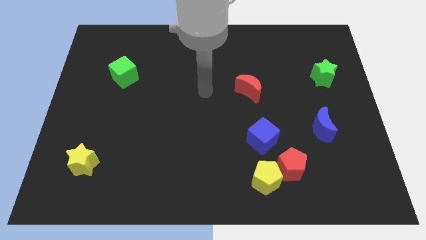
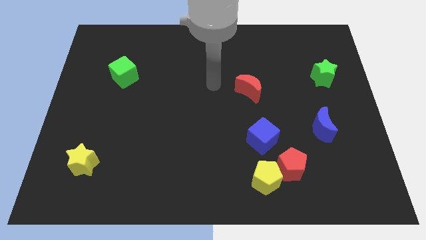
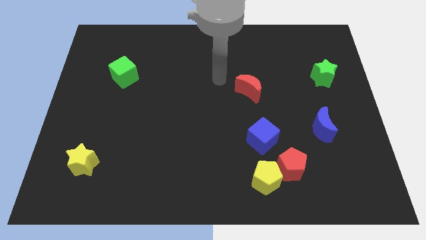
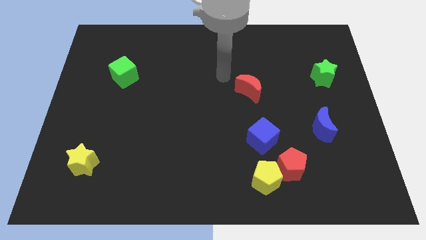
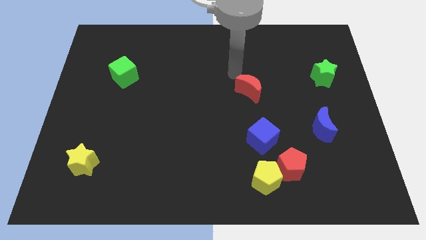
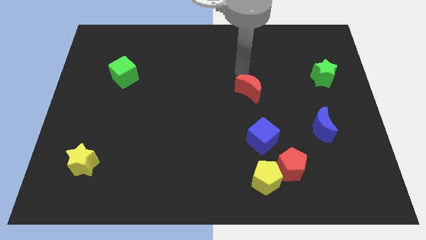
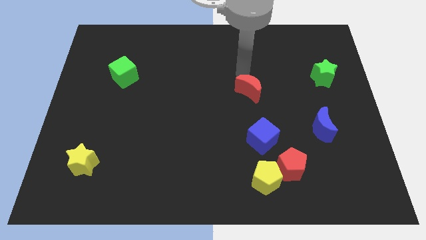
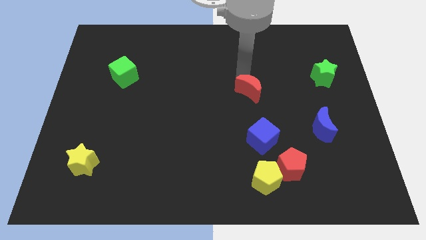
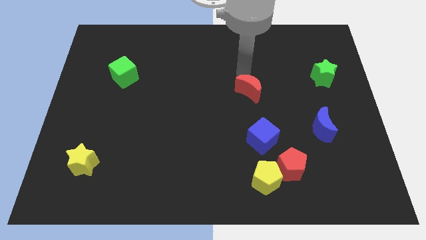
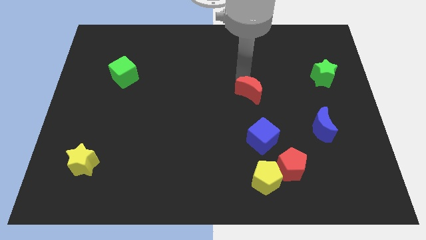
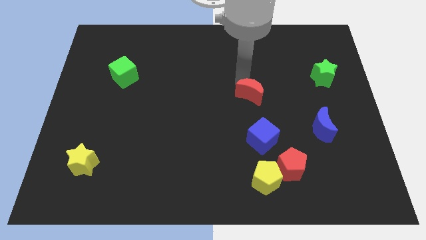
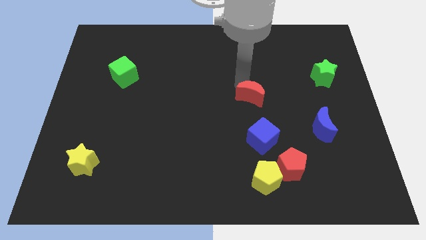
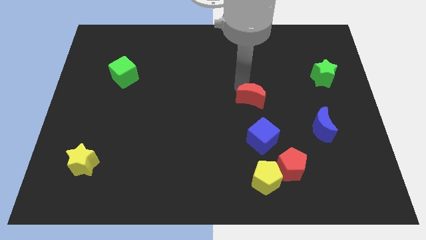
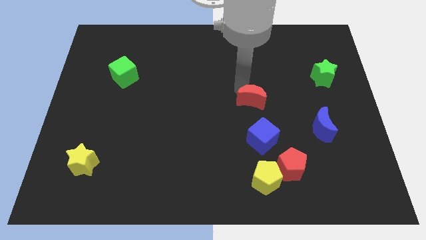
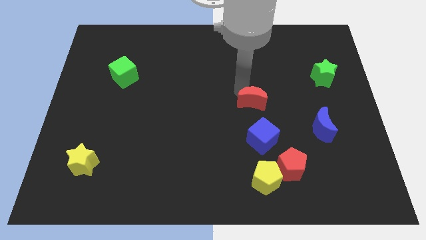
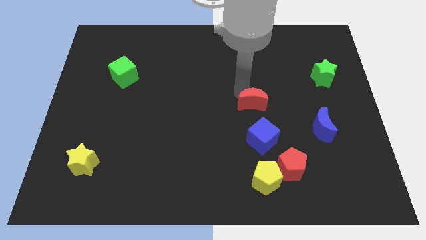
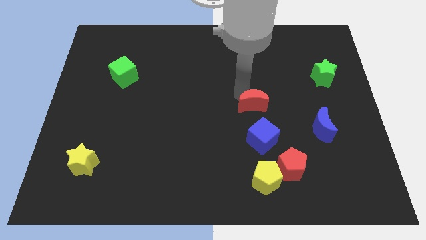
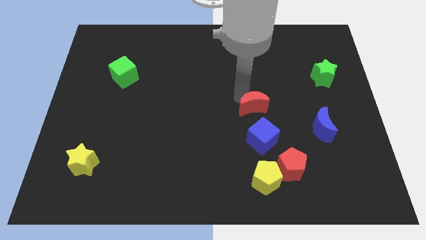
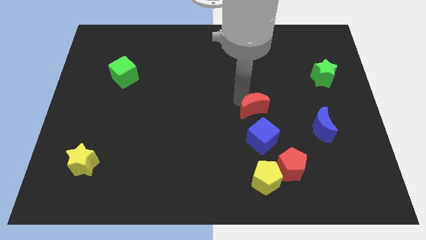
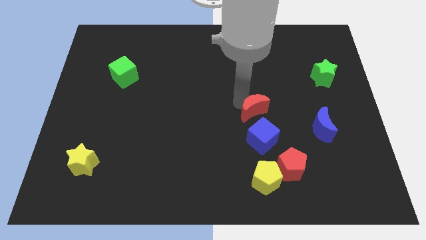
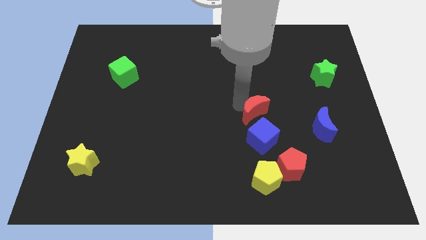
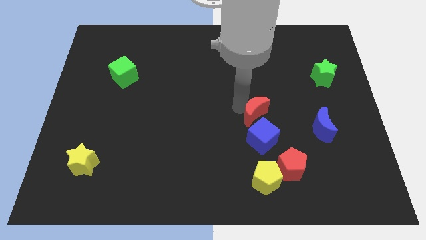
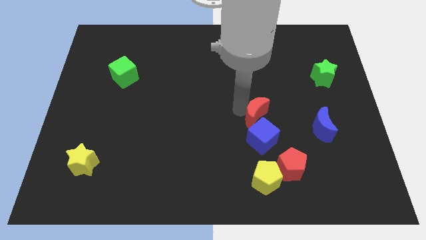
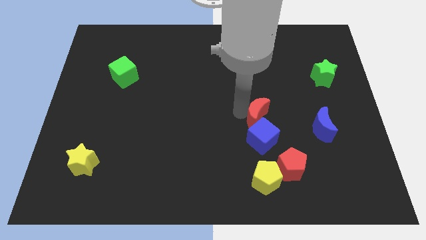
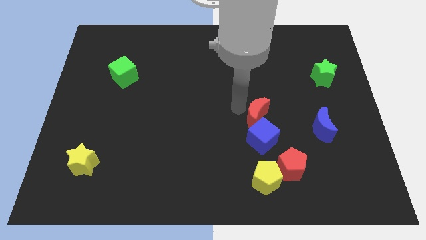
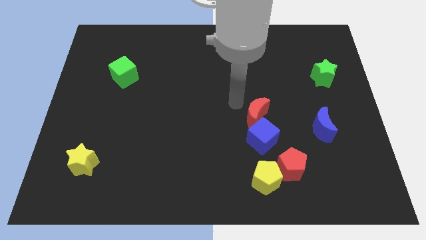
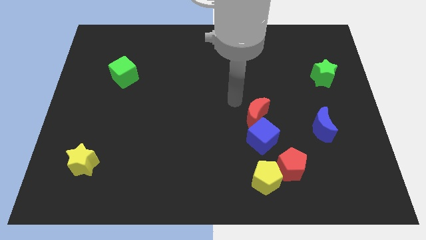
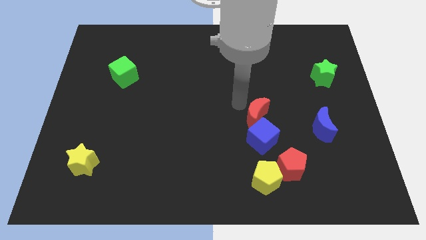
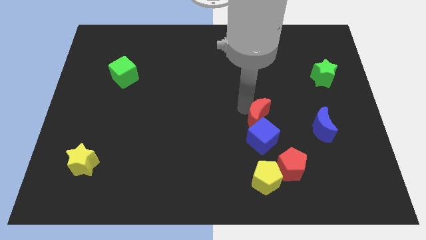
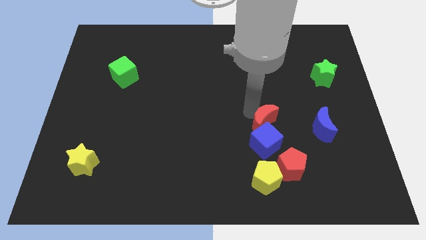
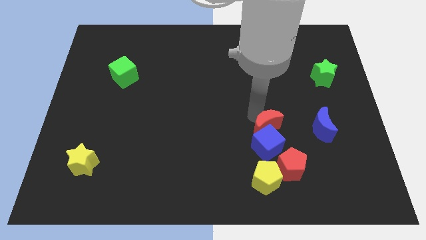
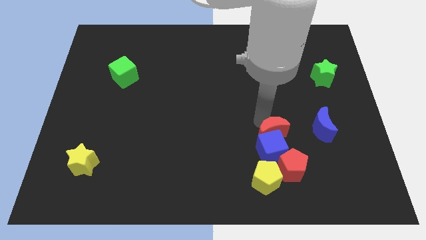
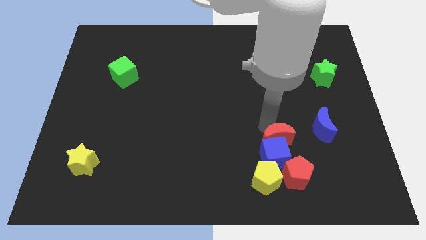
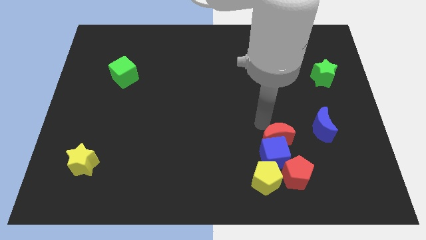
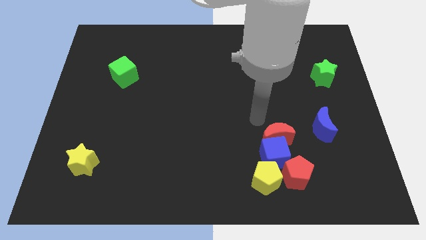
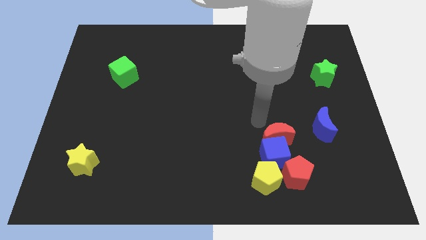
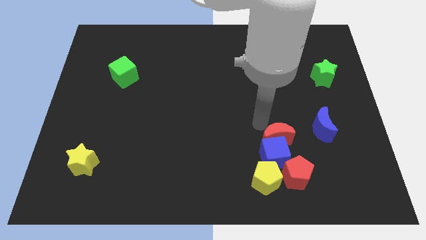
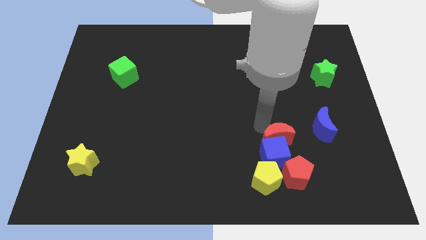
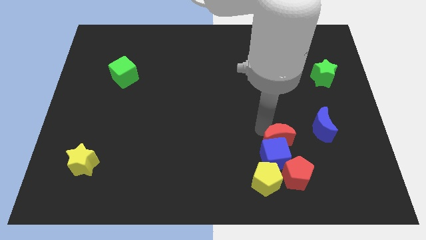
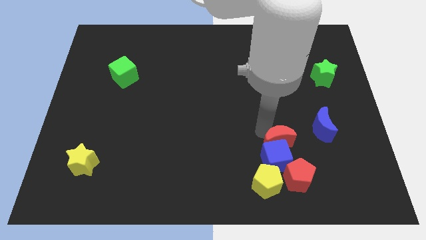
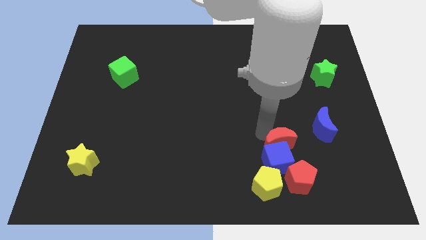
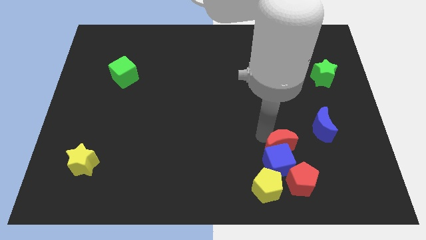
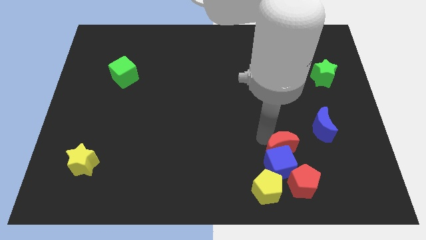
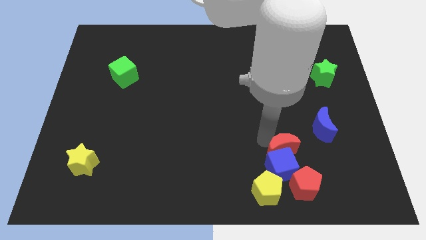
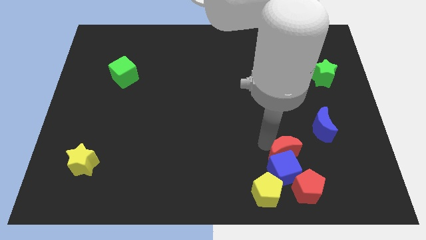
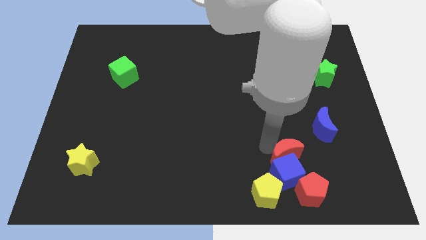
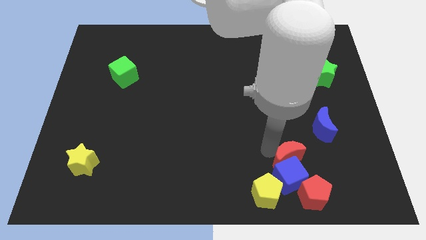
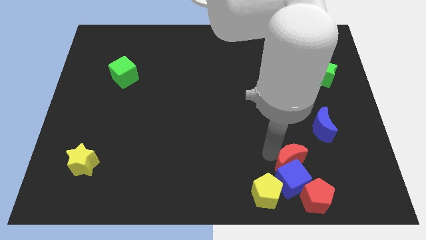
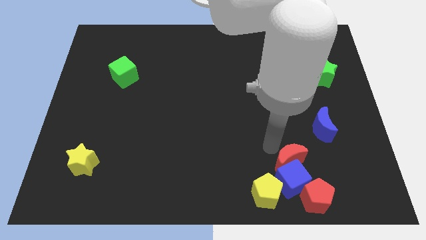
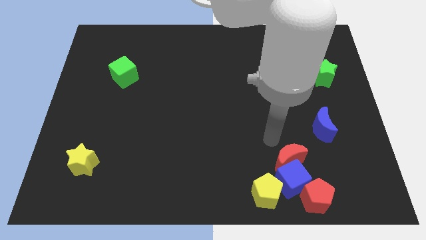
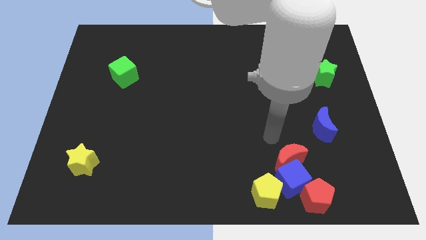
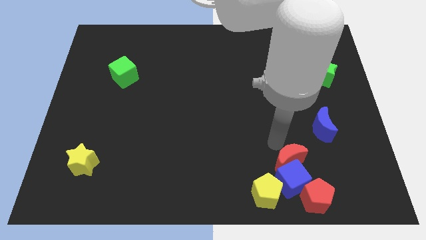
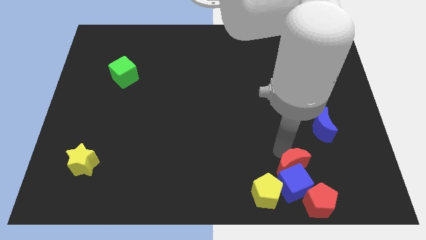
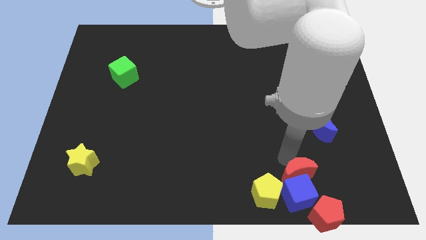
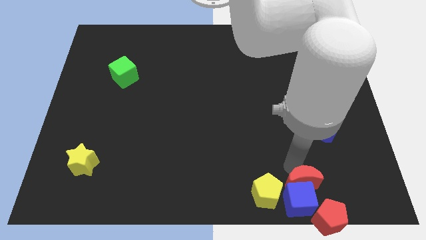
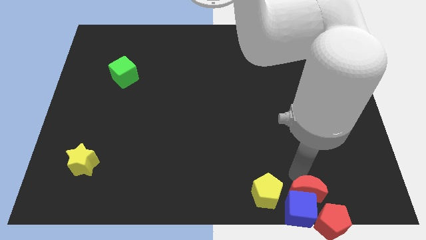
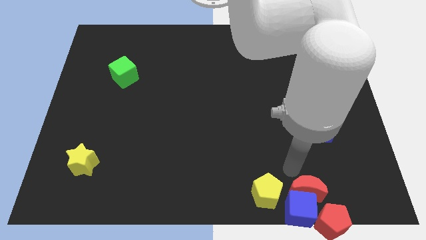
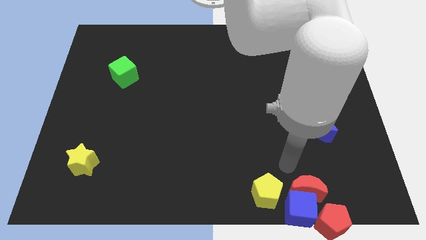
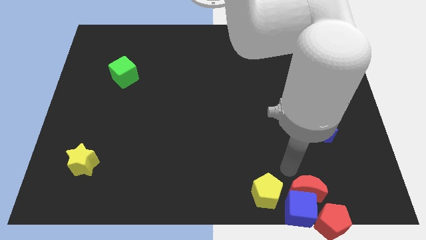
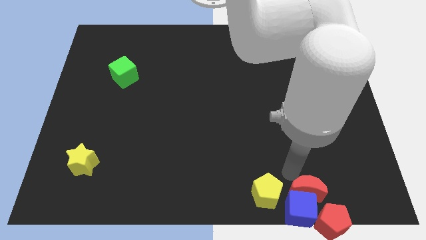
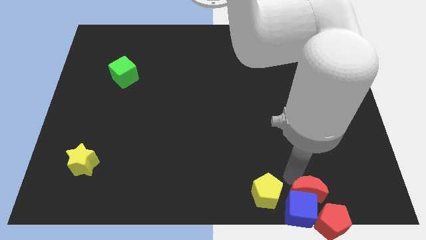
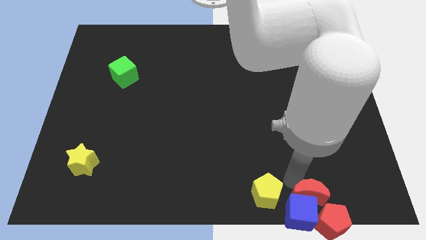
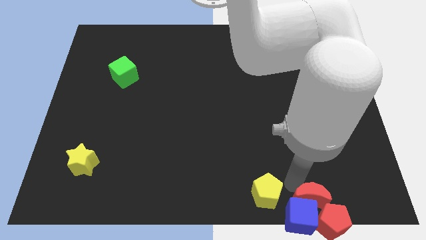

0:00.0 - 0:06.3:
slide the red moon to the red pentagon

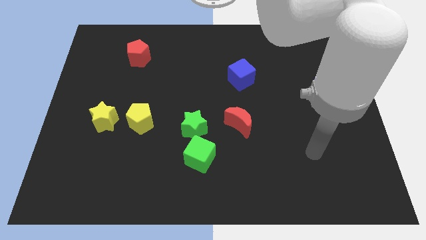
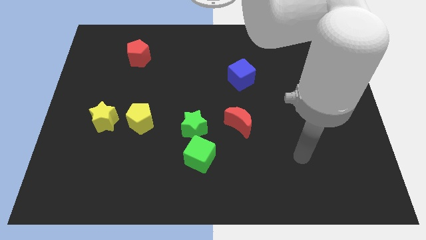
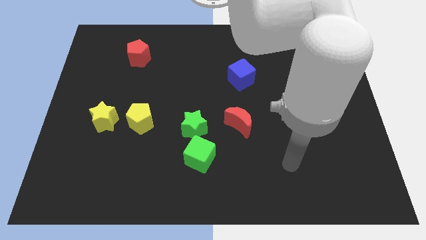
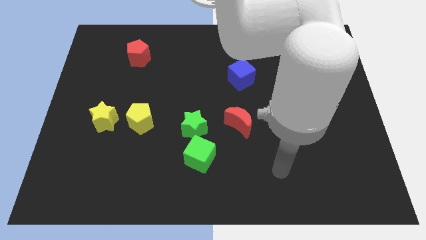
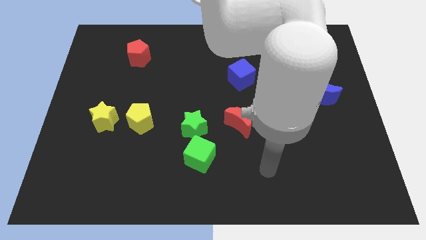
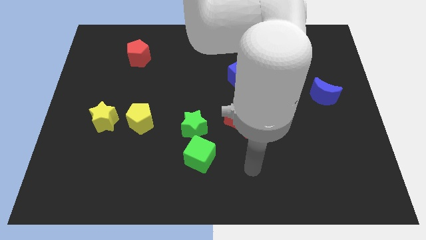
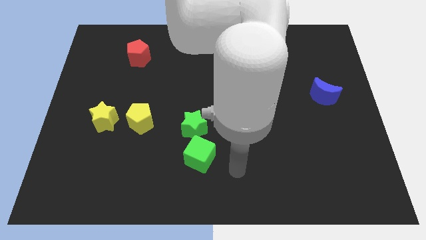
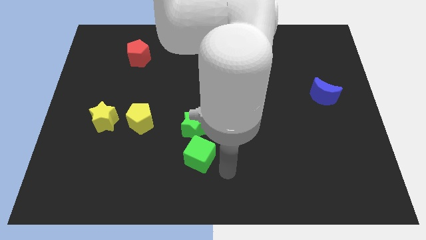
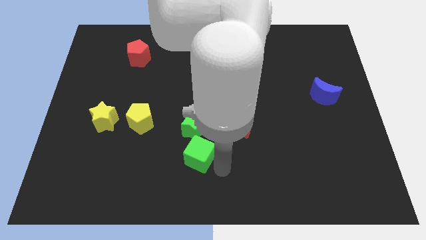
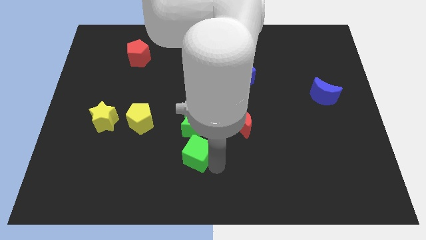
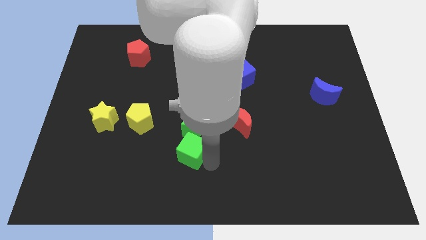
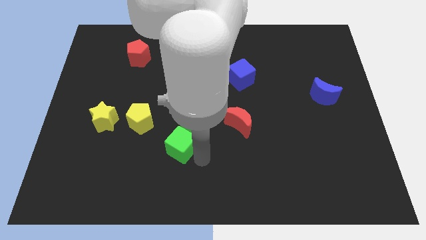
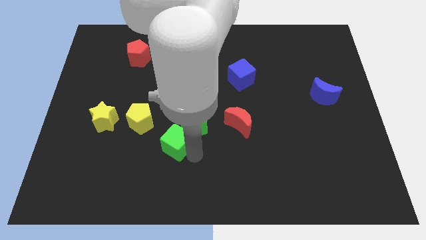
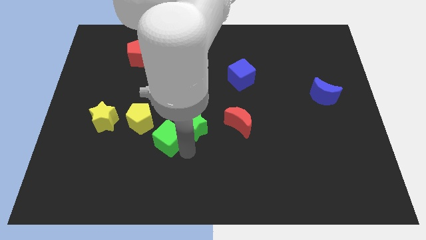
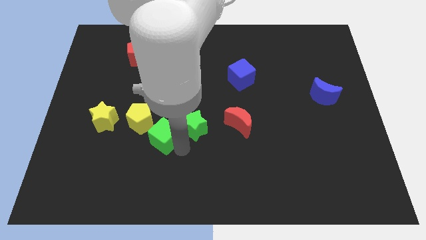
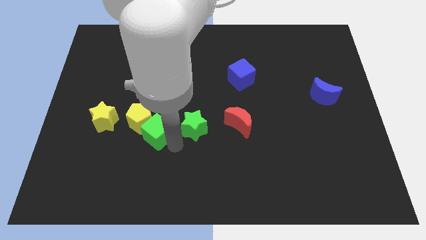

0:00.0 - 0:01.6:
put the green cube close to the yellow pentagon
